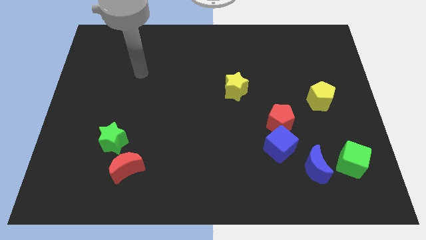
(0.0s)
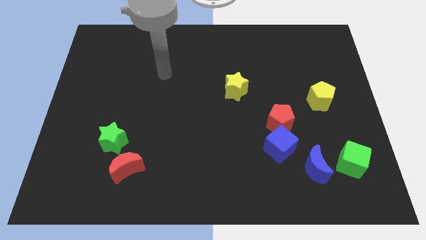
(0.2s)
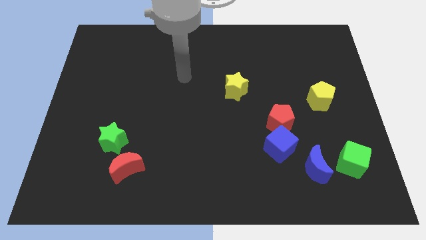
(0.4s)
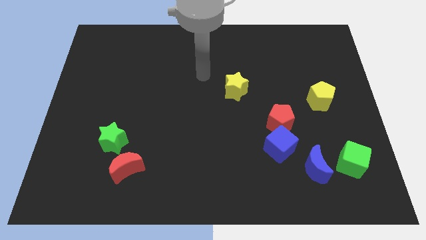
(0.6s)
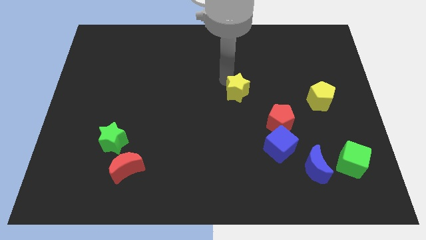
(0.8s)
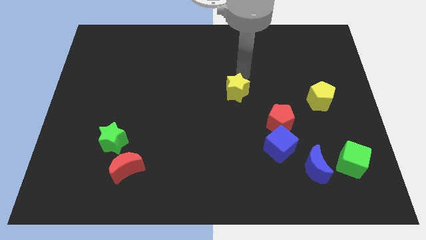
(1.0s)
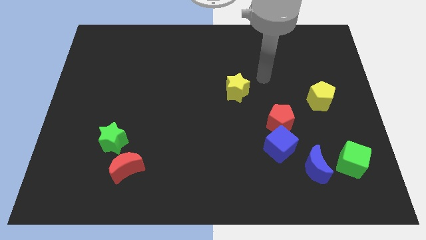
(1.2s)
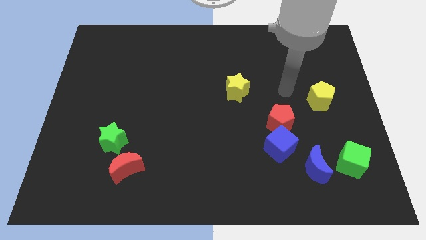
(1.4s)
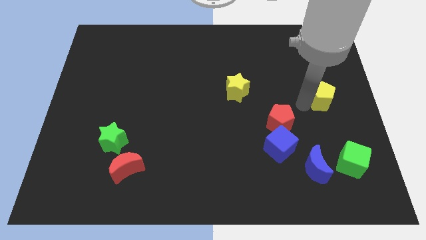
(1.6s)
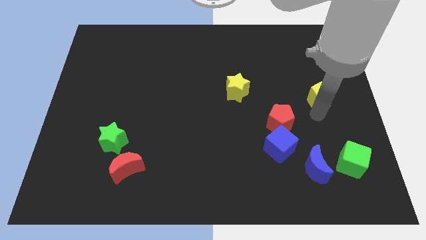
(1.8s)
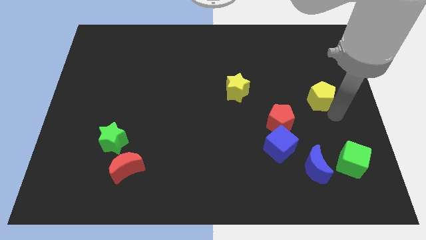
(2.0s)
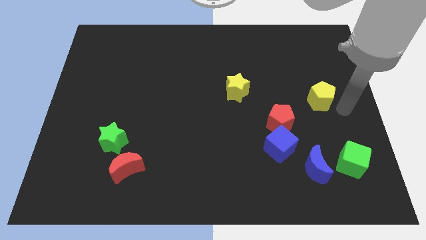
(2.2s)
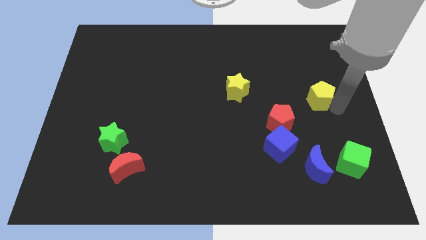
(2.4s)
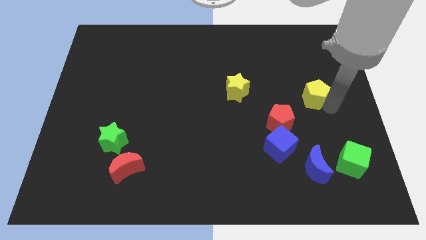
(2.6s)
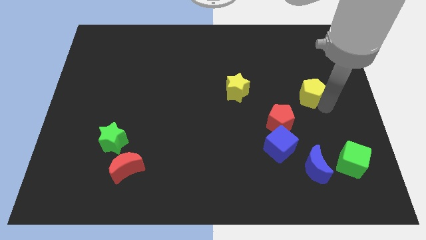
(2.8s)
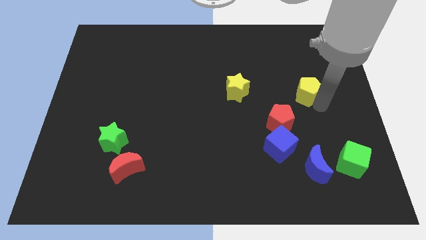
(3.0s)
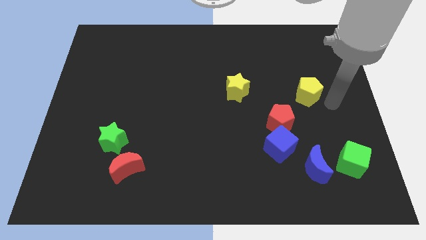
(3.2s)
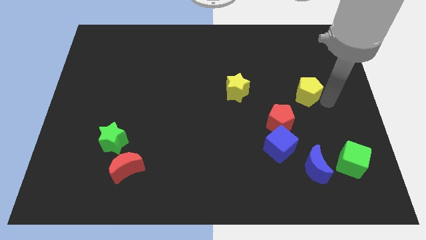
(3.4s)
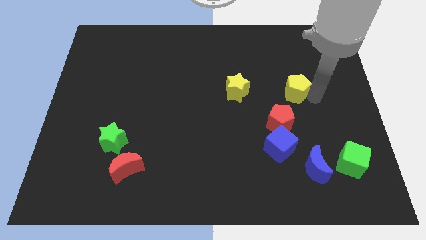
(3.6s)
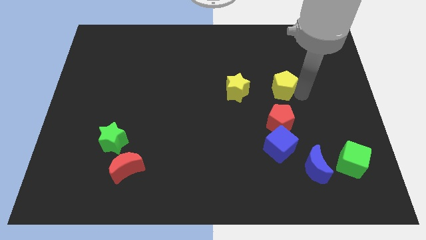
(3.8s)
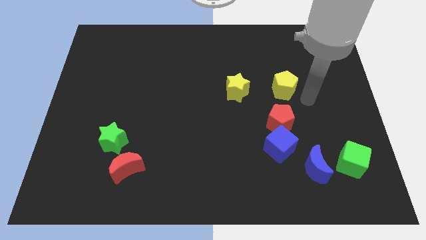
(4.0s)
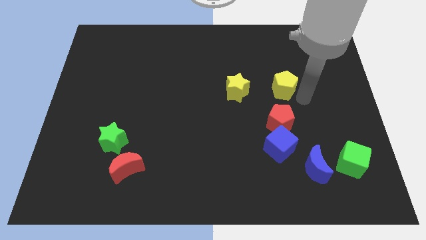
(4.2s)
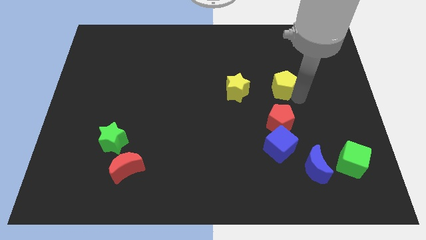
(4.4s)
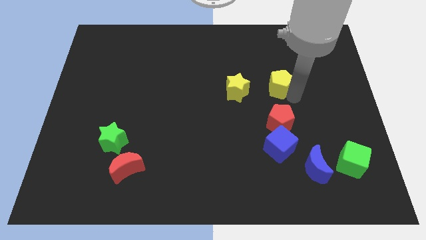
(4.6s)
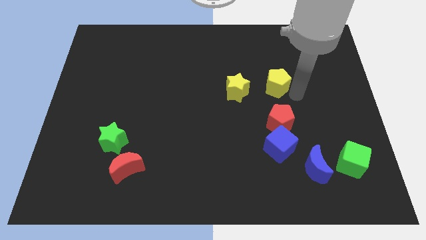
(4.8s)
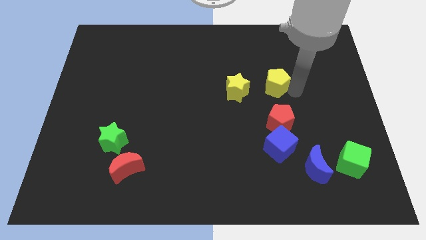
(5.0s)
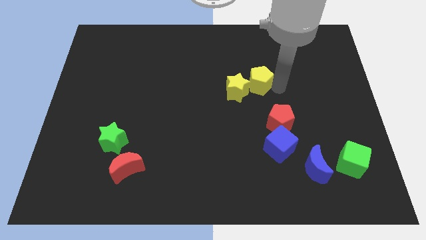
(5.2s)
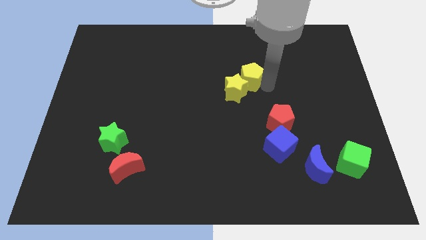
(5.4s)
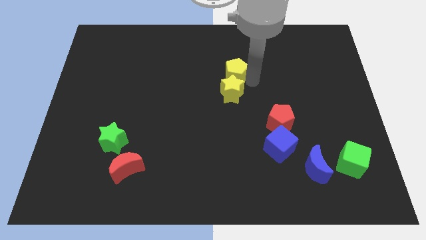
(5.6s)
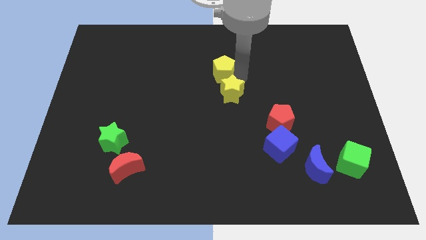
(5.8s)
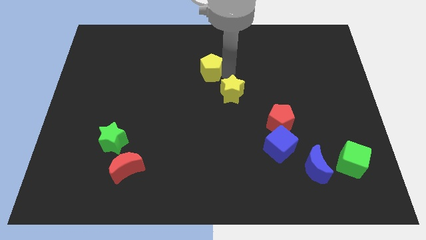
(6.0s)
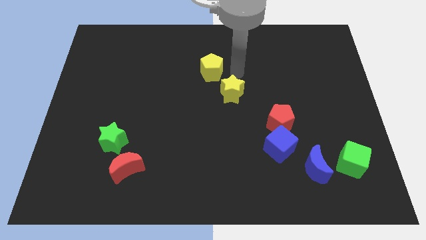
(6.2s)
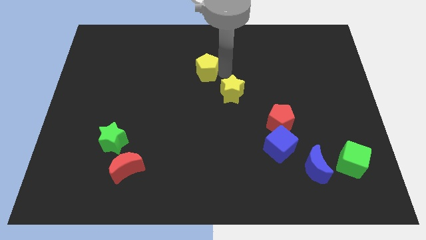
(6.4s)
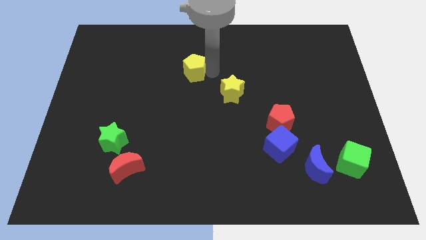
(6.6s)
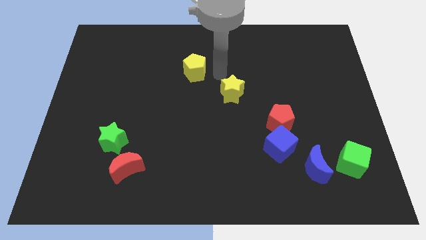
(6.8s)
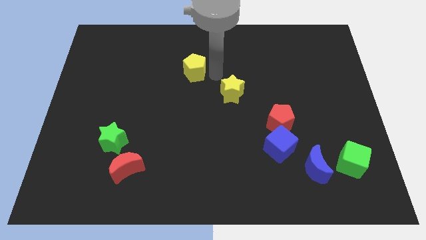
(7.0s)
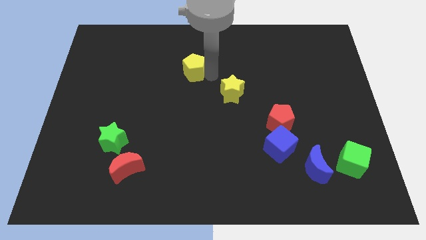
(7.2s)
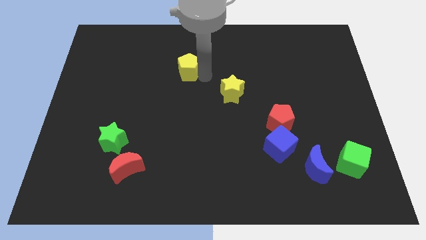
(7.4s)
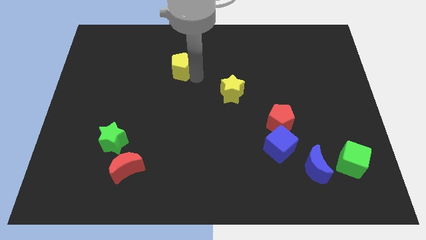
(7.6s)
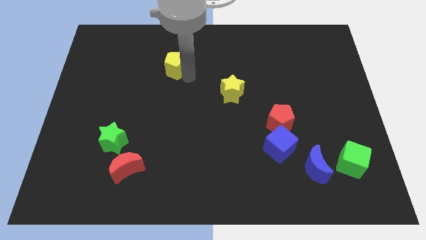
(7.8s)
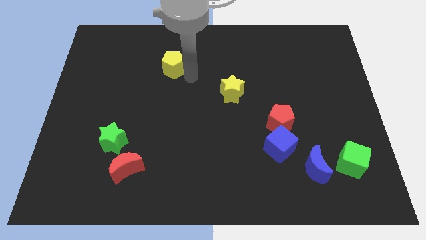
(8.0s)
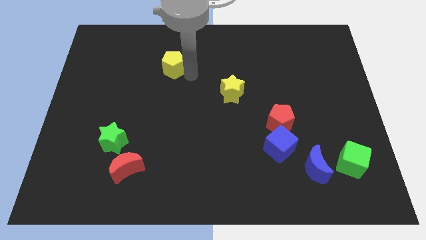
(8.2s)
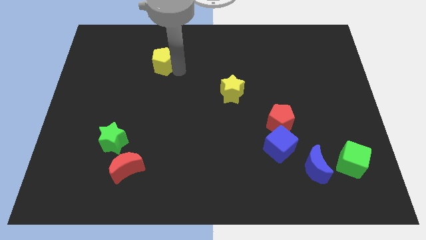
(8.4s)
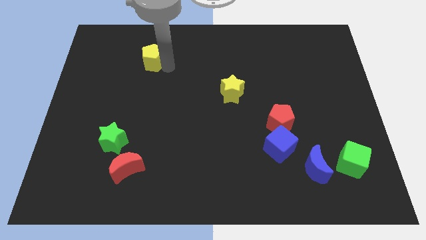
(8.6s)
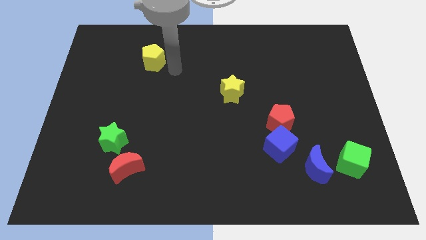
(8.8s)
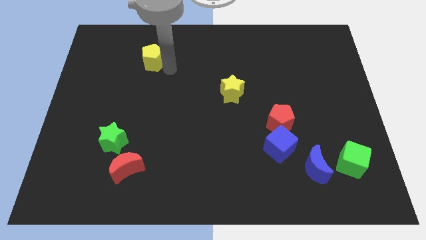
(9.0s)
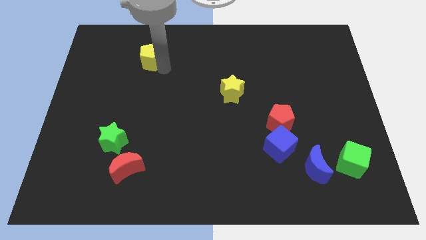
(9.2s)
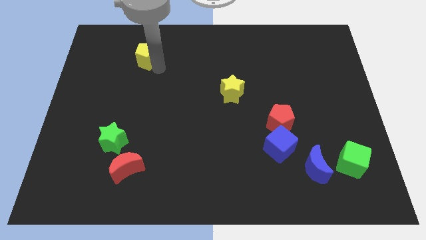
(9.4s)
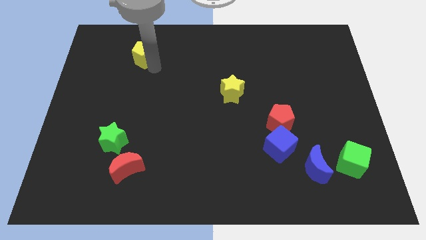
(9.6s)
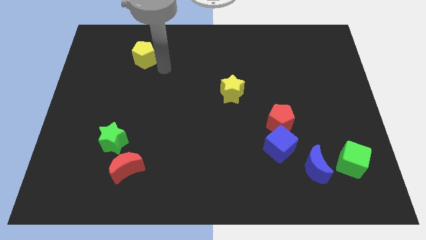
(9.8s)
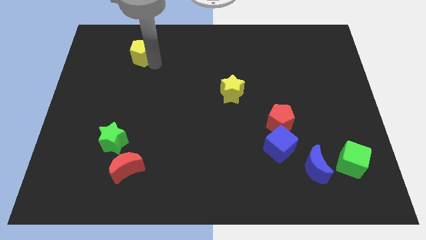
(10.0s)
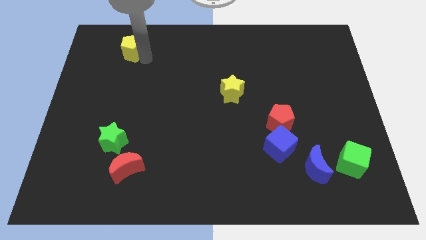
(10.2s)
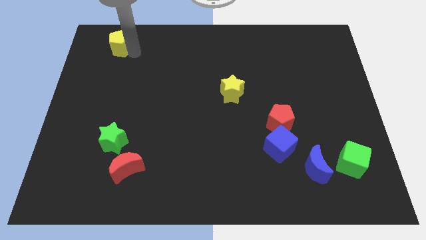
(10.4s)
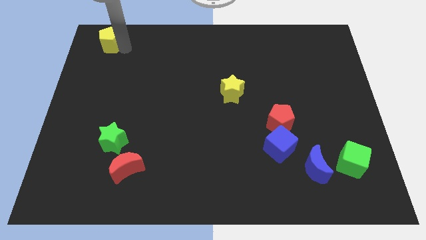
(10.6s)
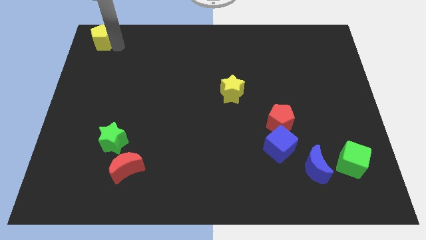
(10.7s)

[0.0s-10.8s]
slide the yellow pentagon to the top left corner

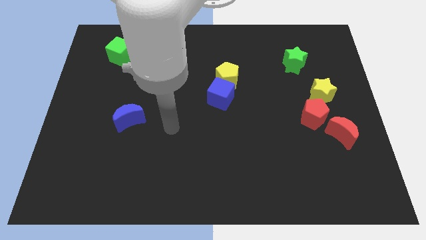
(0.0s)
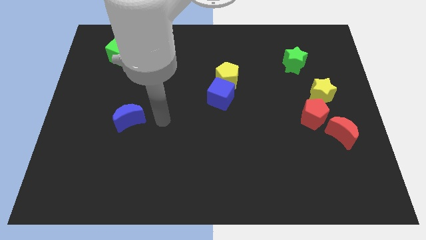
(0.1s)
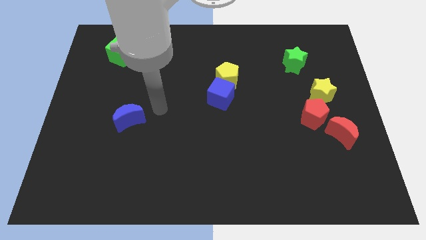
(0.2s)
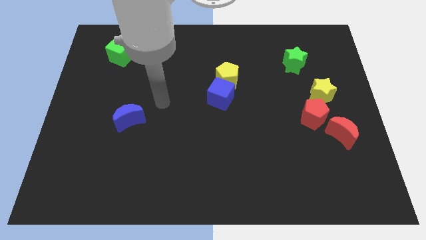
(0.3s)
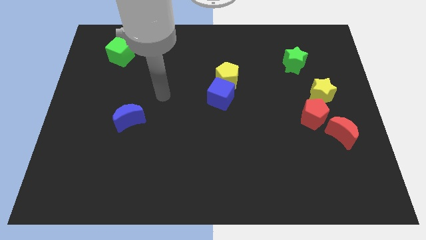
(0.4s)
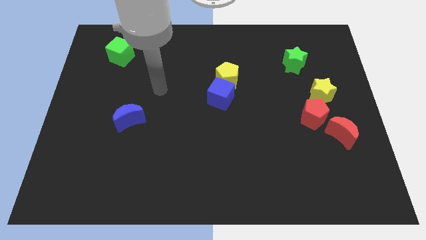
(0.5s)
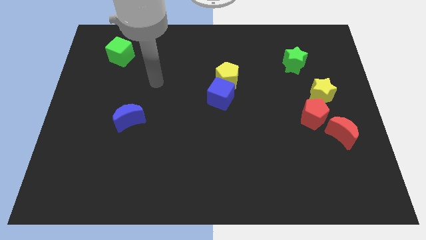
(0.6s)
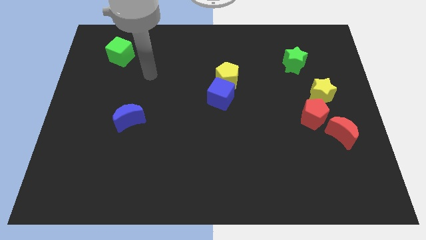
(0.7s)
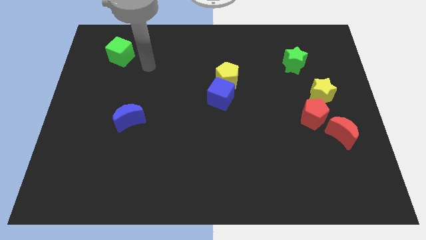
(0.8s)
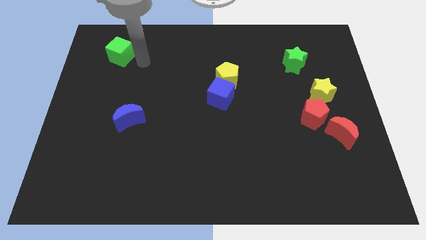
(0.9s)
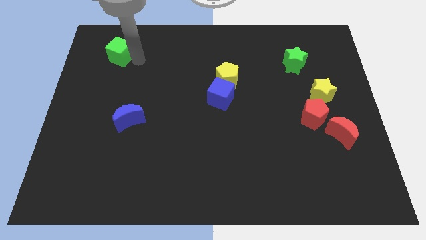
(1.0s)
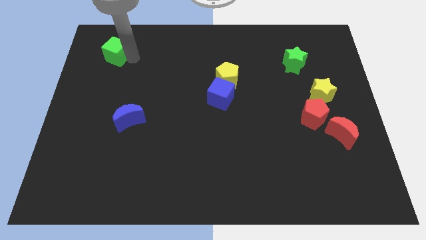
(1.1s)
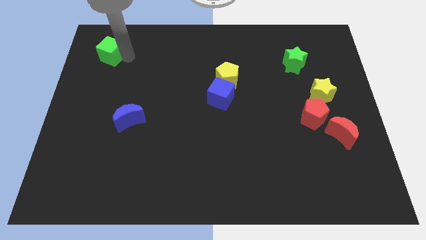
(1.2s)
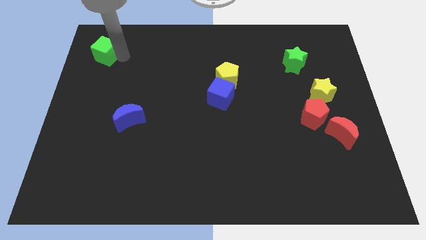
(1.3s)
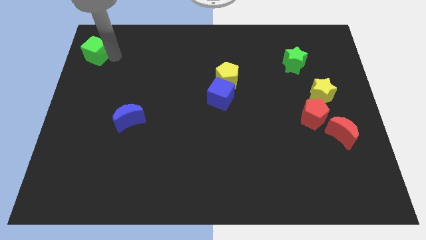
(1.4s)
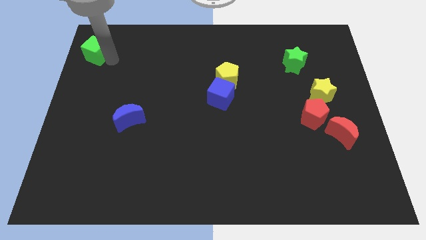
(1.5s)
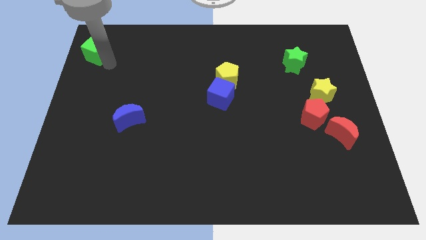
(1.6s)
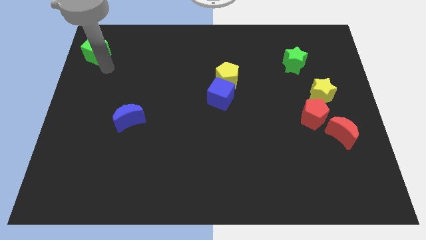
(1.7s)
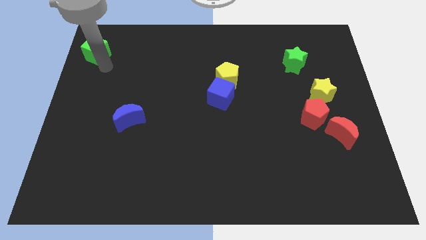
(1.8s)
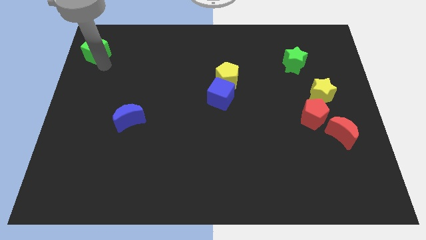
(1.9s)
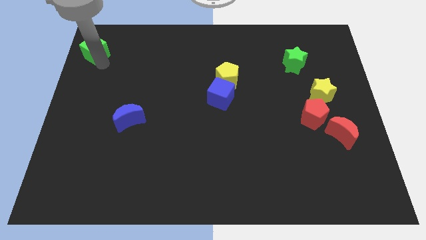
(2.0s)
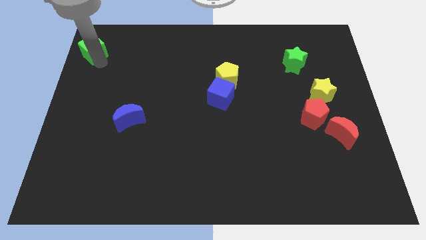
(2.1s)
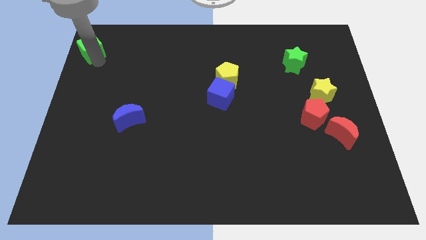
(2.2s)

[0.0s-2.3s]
slide the green cube to the top left
